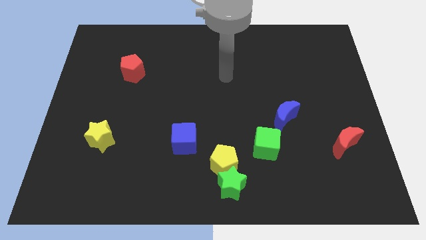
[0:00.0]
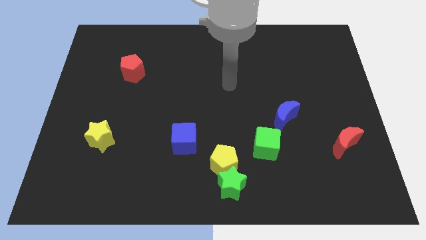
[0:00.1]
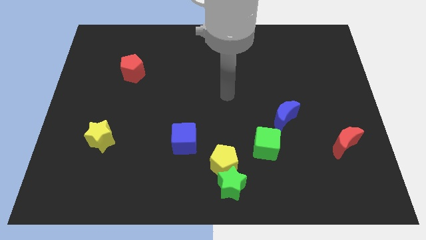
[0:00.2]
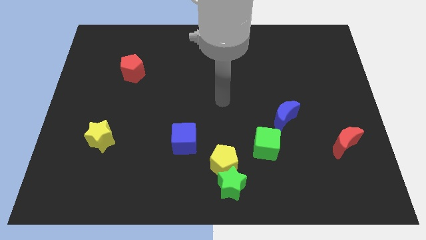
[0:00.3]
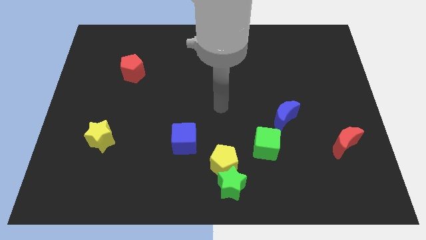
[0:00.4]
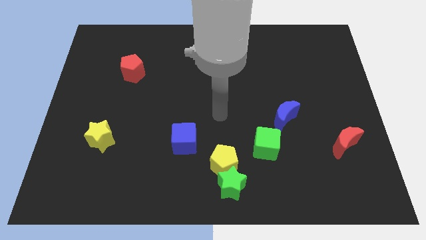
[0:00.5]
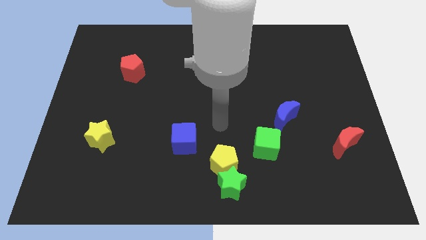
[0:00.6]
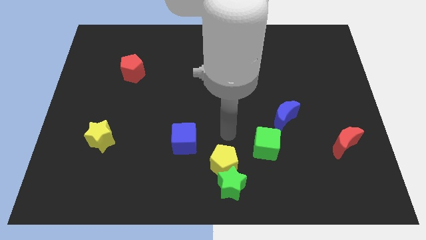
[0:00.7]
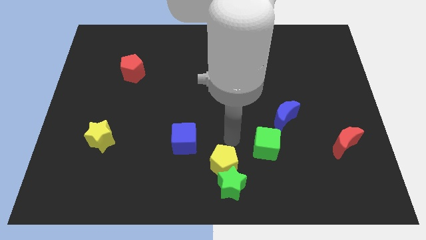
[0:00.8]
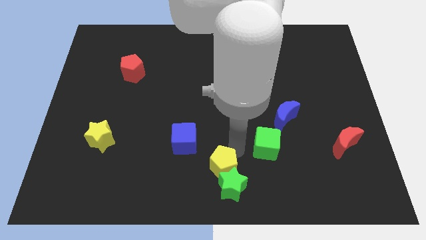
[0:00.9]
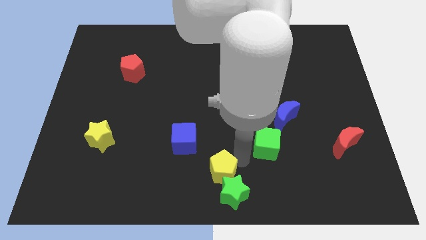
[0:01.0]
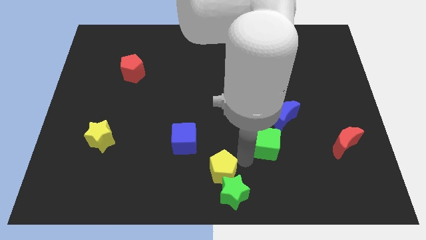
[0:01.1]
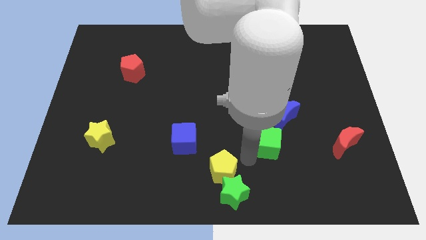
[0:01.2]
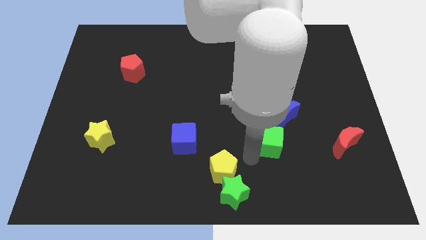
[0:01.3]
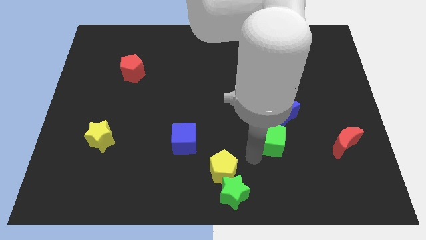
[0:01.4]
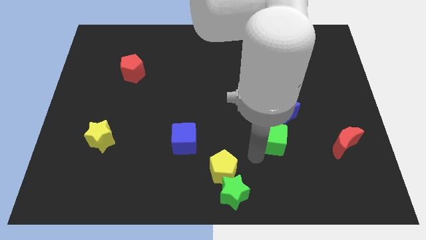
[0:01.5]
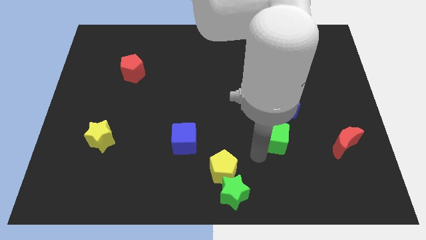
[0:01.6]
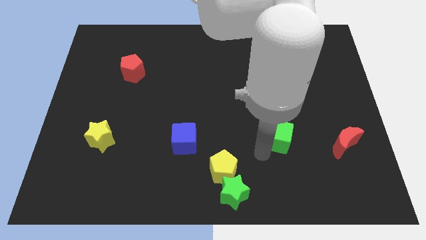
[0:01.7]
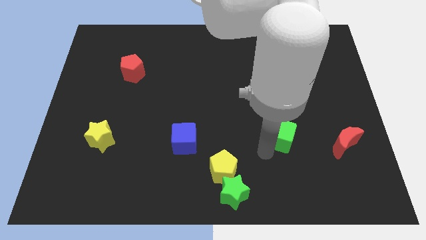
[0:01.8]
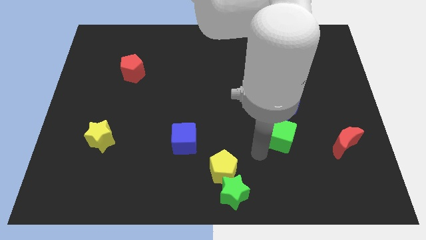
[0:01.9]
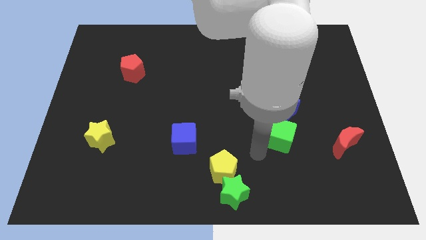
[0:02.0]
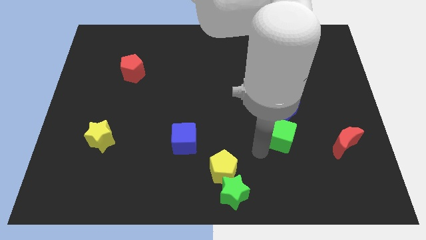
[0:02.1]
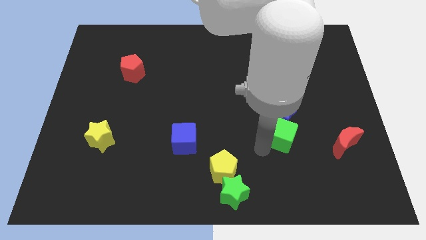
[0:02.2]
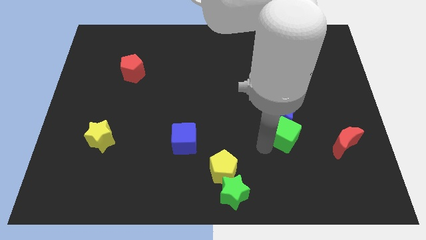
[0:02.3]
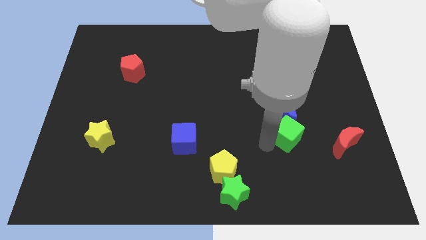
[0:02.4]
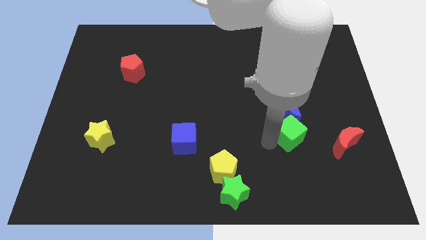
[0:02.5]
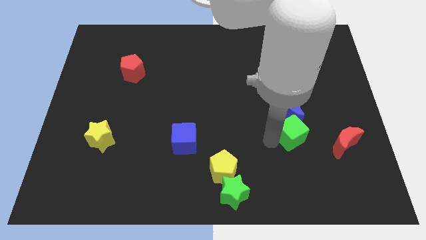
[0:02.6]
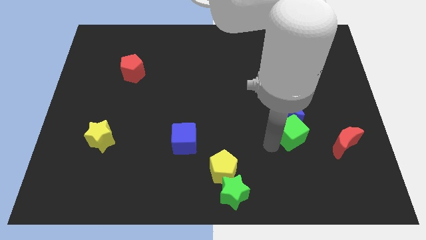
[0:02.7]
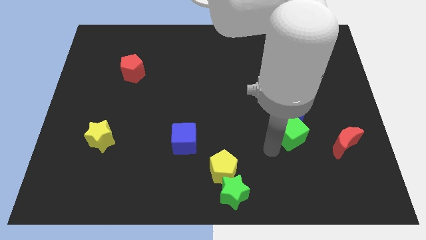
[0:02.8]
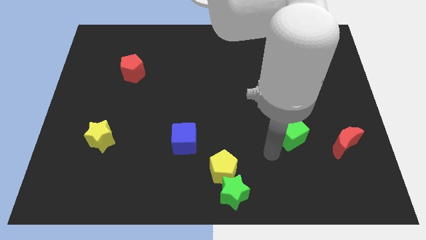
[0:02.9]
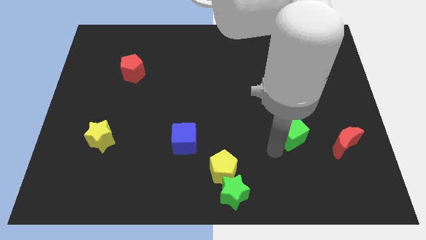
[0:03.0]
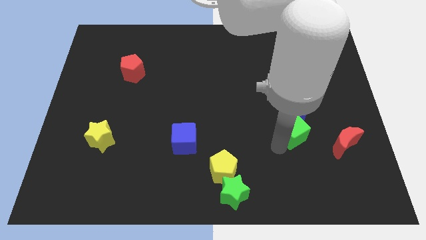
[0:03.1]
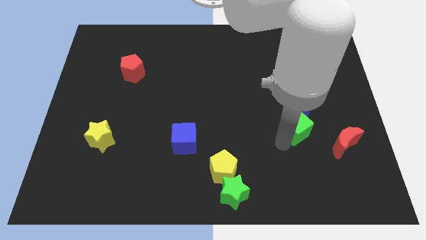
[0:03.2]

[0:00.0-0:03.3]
move the green cube up and then right a bit

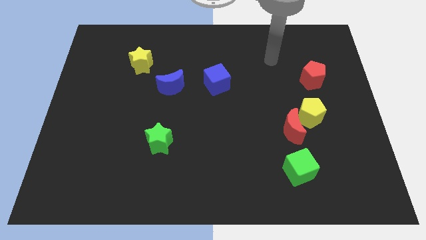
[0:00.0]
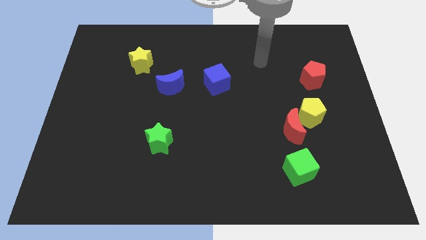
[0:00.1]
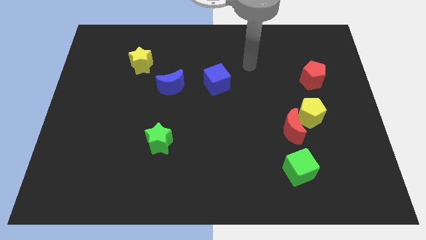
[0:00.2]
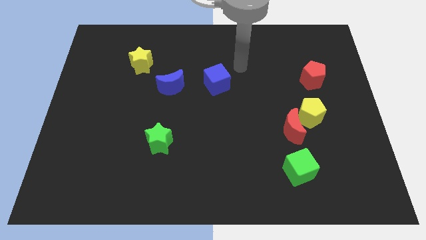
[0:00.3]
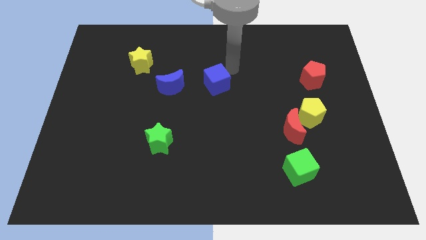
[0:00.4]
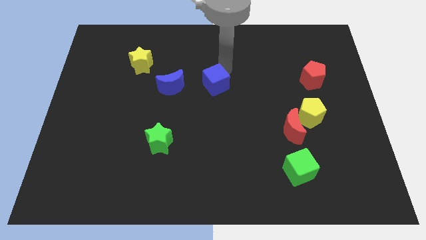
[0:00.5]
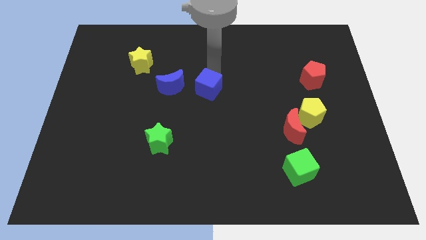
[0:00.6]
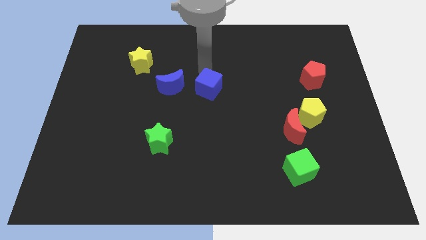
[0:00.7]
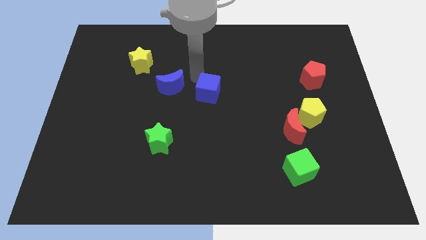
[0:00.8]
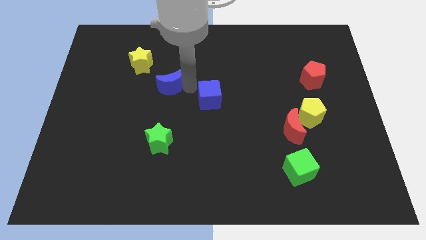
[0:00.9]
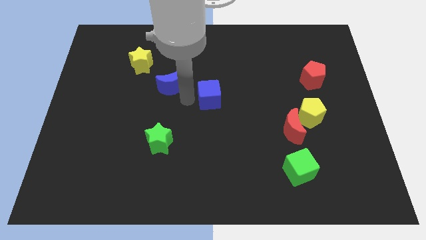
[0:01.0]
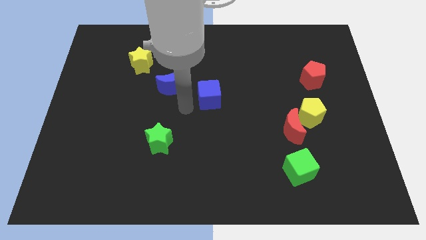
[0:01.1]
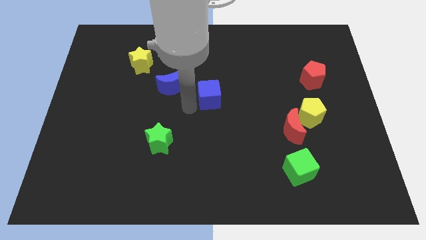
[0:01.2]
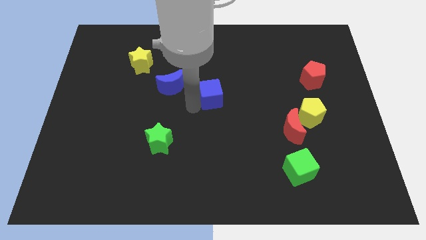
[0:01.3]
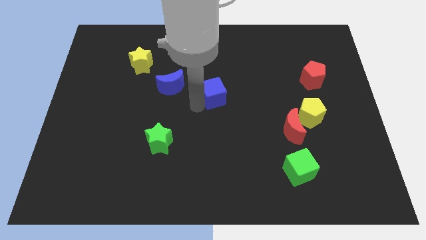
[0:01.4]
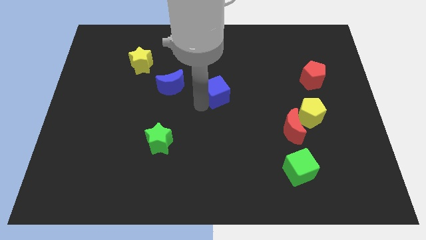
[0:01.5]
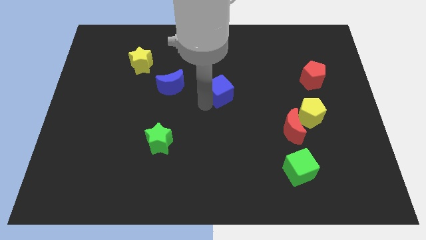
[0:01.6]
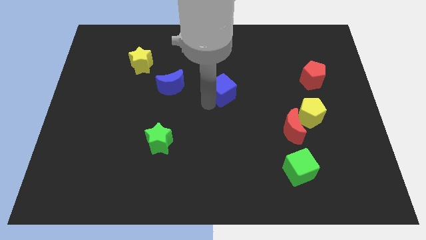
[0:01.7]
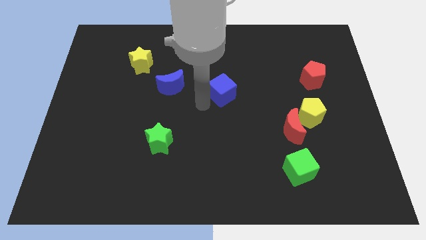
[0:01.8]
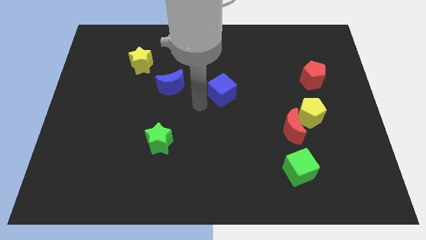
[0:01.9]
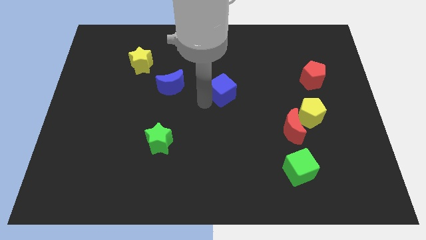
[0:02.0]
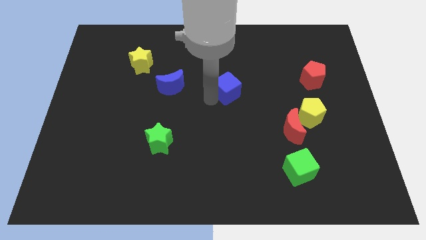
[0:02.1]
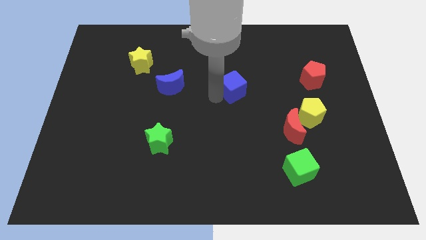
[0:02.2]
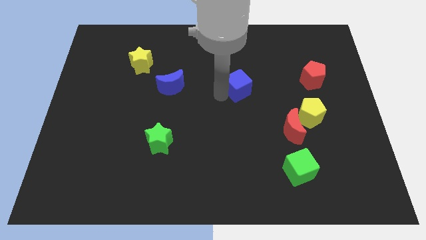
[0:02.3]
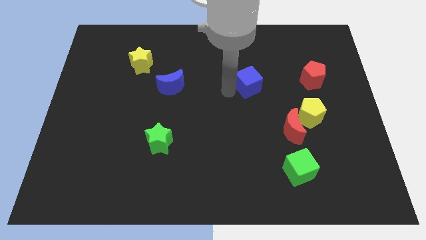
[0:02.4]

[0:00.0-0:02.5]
slide the blue cube right a little

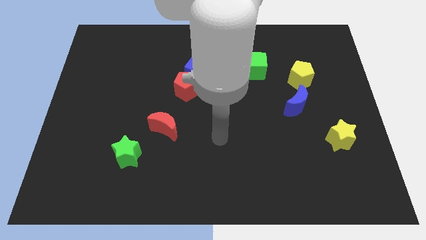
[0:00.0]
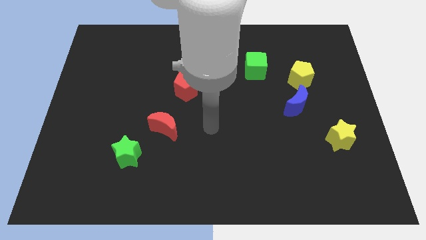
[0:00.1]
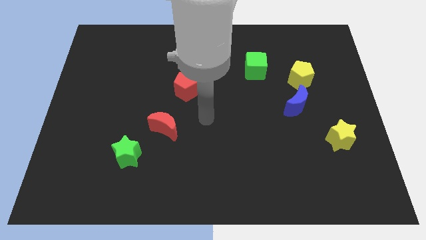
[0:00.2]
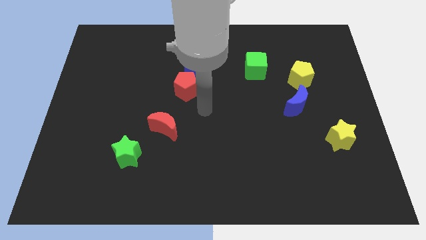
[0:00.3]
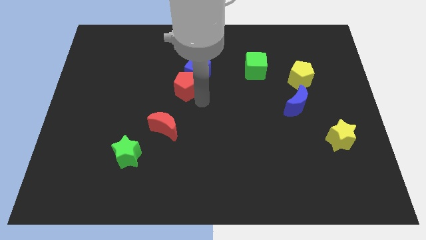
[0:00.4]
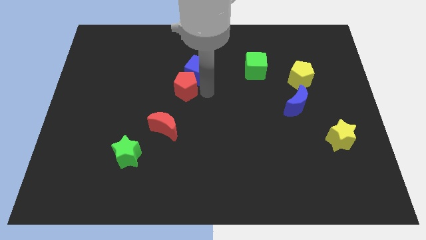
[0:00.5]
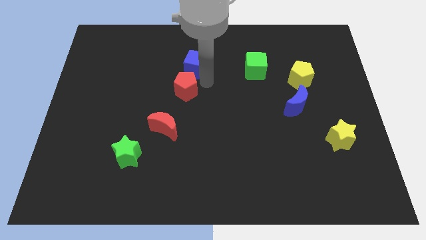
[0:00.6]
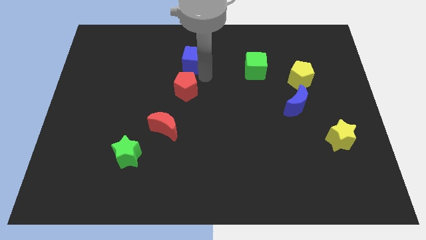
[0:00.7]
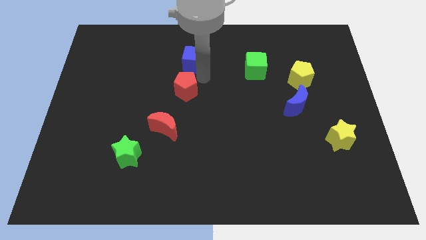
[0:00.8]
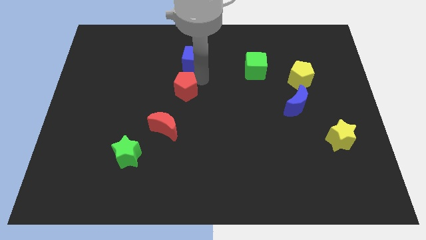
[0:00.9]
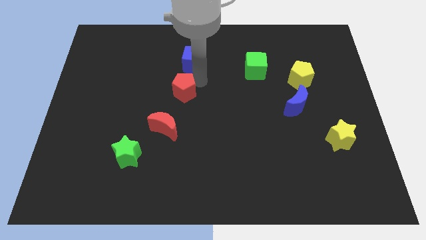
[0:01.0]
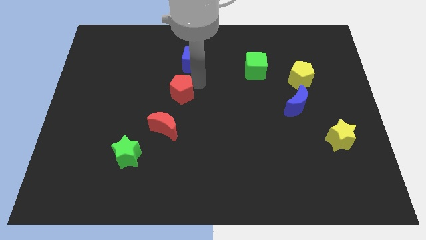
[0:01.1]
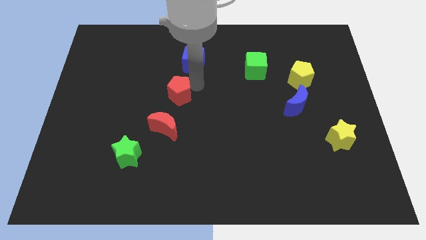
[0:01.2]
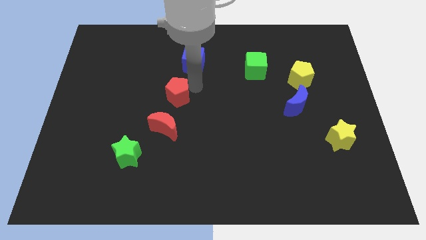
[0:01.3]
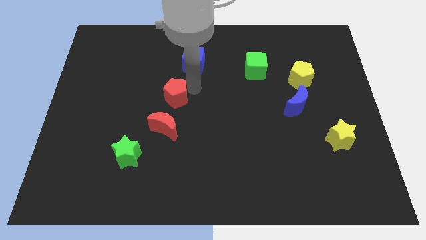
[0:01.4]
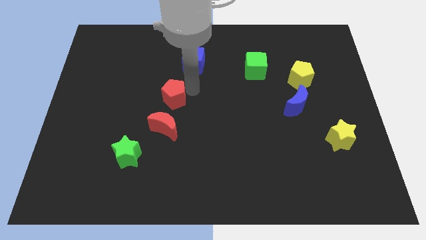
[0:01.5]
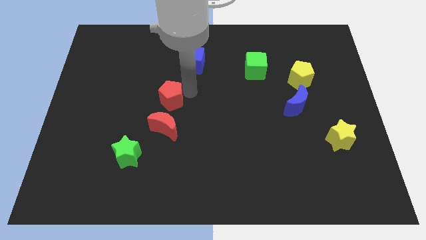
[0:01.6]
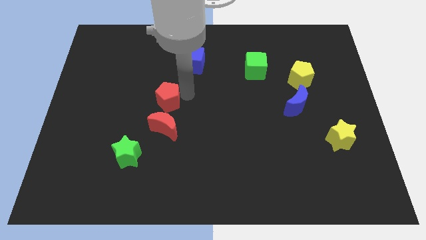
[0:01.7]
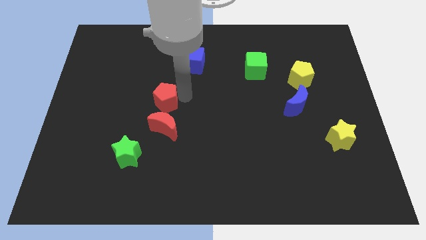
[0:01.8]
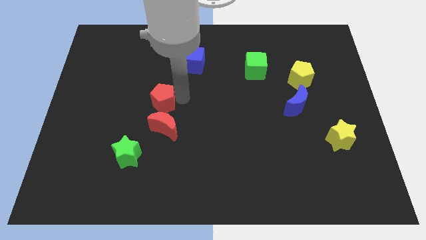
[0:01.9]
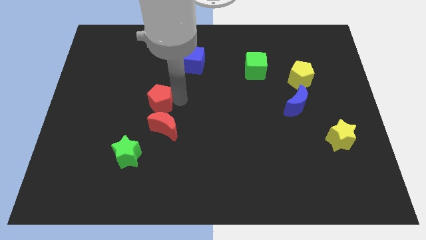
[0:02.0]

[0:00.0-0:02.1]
slightly push the red pentagon downwards and then left

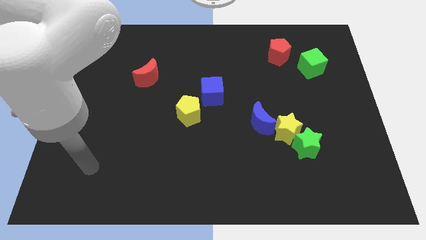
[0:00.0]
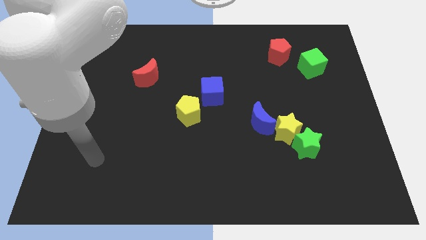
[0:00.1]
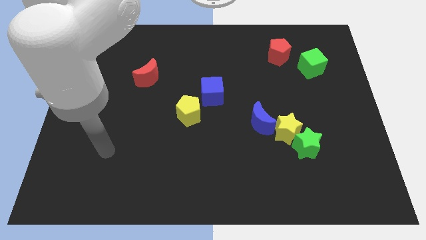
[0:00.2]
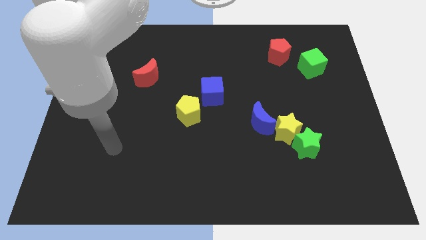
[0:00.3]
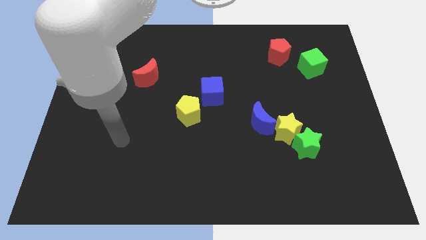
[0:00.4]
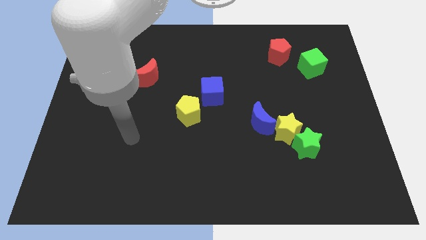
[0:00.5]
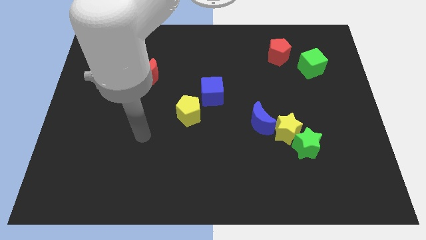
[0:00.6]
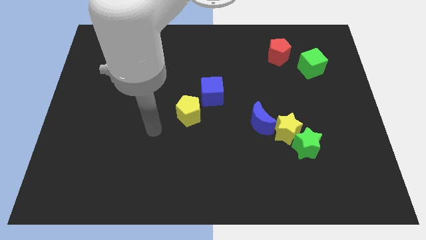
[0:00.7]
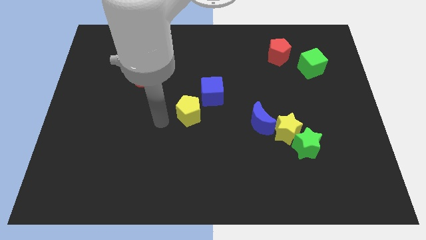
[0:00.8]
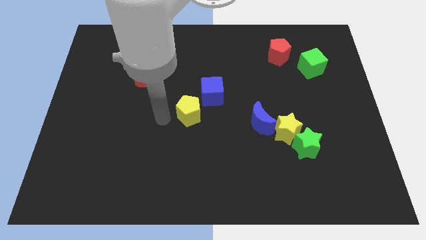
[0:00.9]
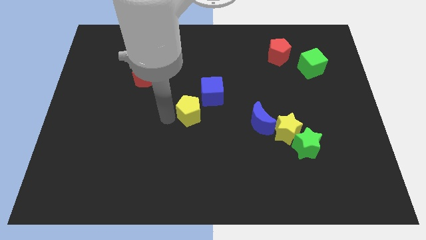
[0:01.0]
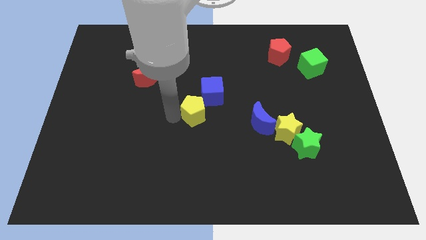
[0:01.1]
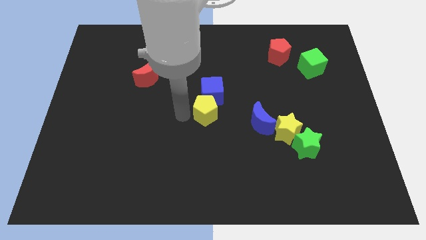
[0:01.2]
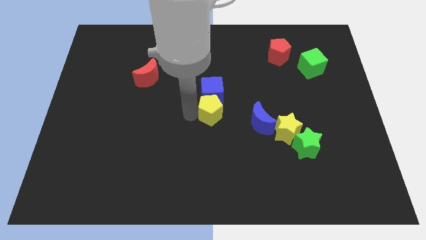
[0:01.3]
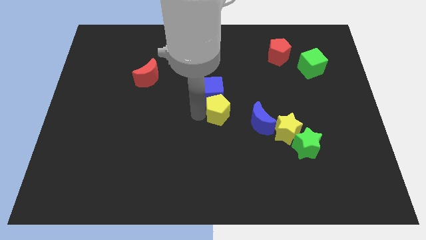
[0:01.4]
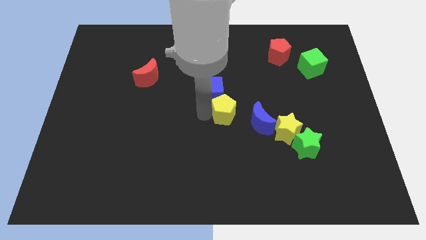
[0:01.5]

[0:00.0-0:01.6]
slightly push the yellow pentagon to the right
